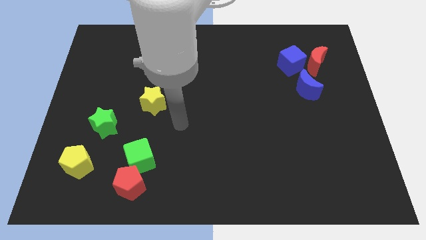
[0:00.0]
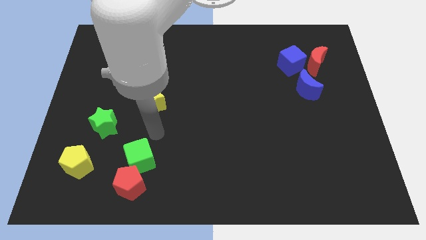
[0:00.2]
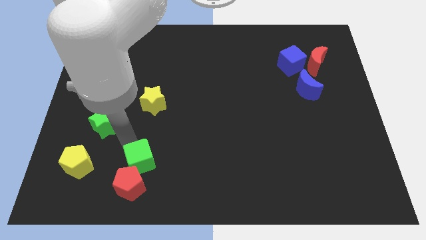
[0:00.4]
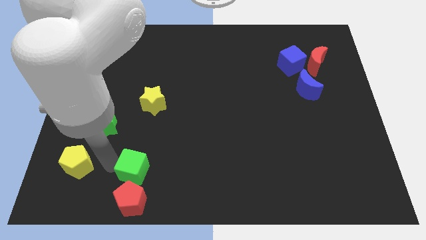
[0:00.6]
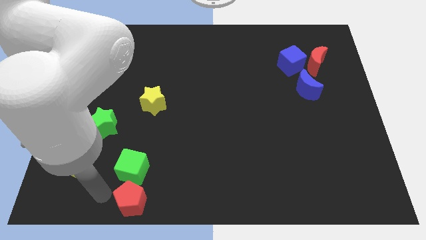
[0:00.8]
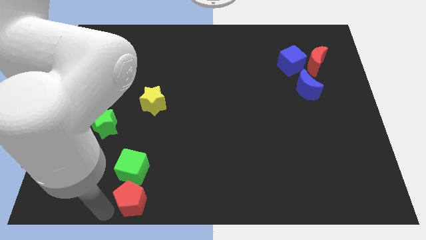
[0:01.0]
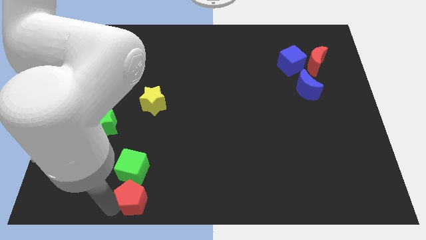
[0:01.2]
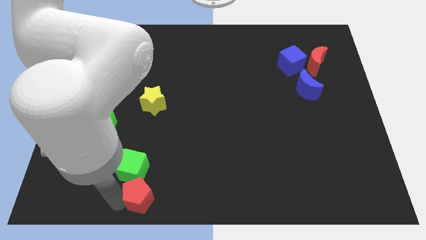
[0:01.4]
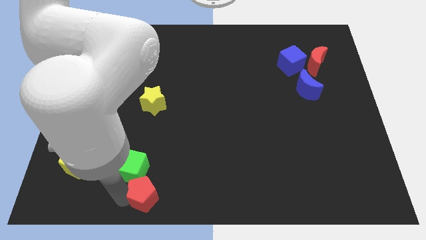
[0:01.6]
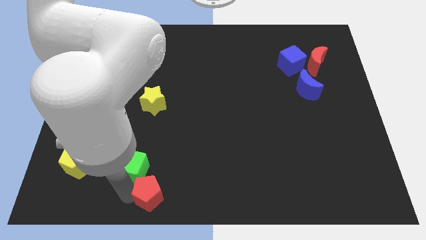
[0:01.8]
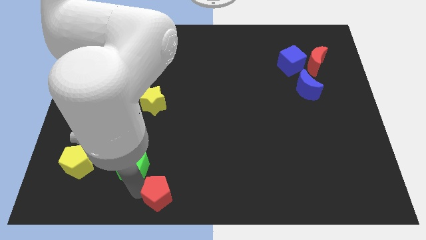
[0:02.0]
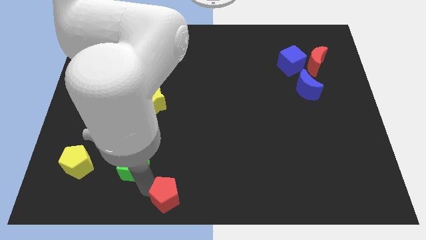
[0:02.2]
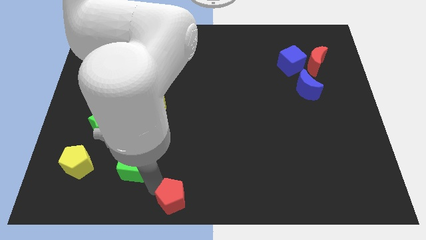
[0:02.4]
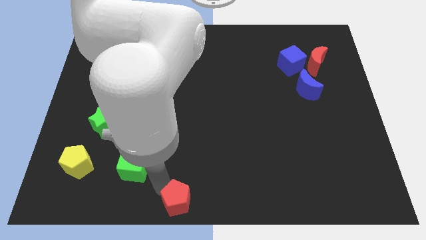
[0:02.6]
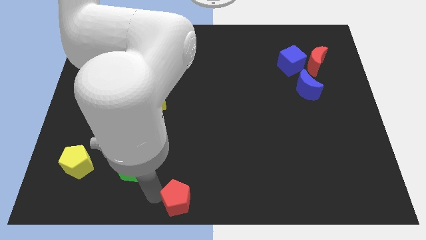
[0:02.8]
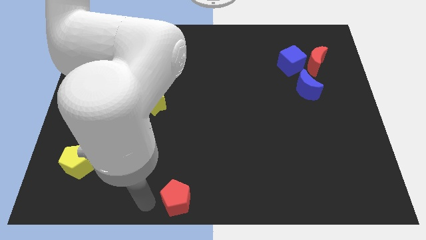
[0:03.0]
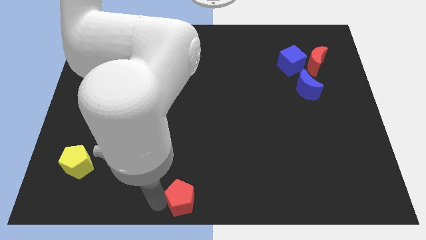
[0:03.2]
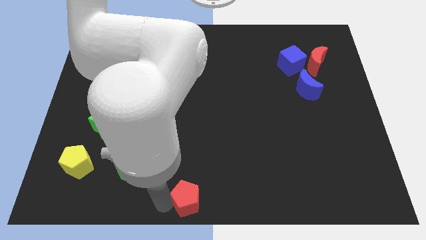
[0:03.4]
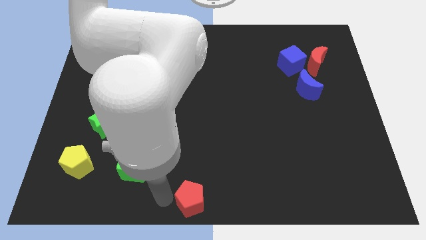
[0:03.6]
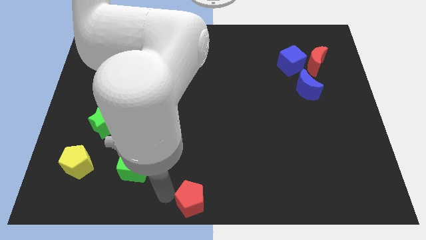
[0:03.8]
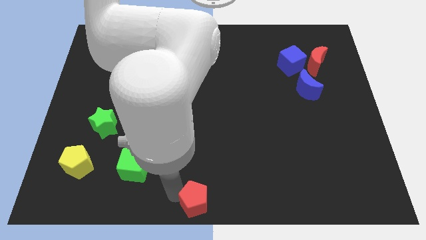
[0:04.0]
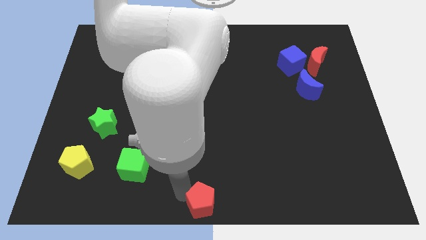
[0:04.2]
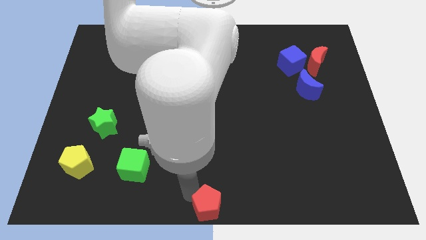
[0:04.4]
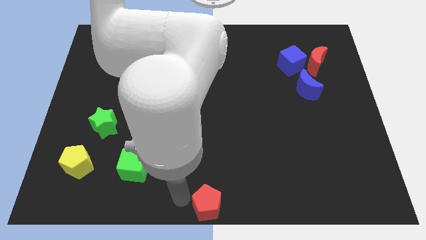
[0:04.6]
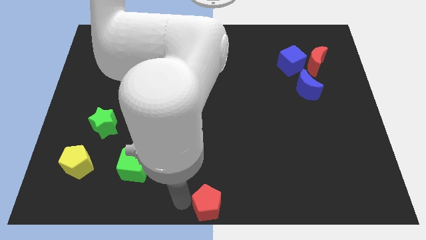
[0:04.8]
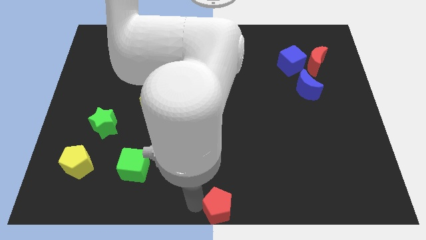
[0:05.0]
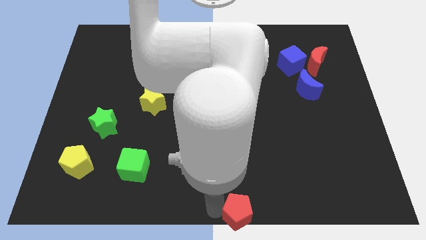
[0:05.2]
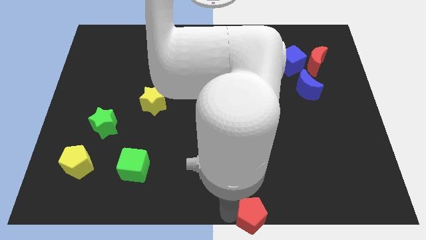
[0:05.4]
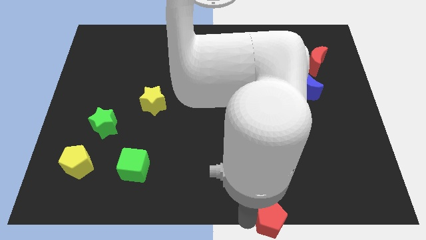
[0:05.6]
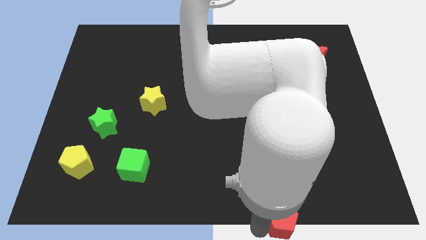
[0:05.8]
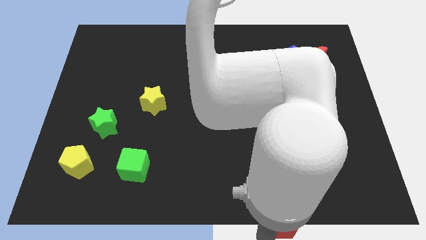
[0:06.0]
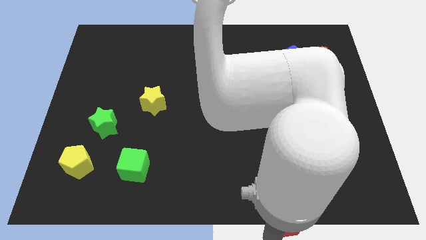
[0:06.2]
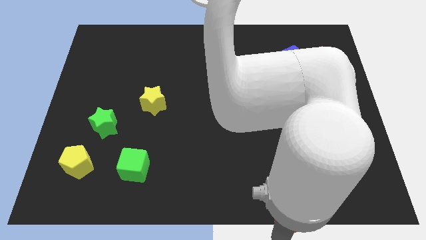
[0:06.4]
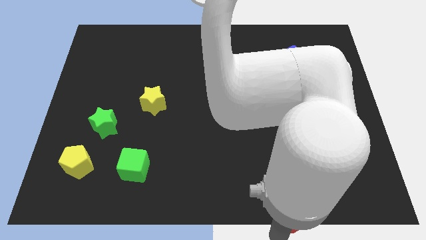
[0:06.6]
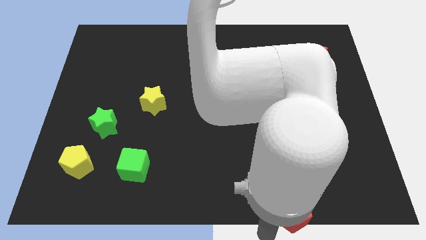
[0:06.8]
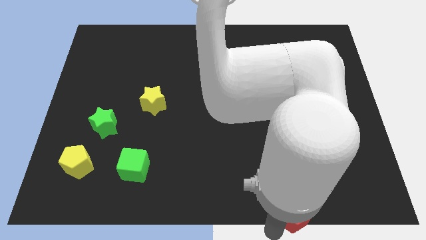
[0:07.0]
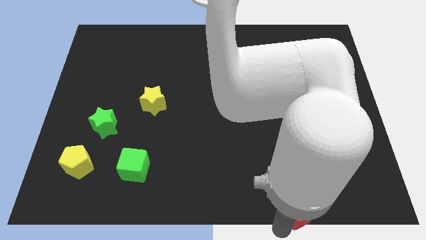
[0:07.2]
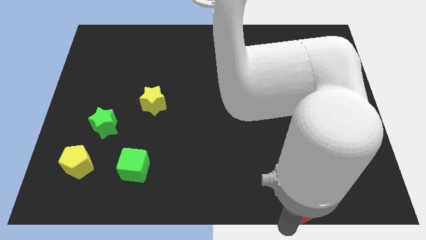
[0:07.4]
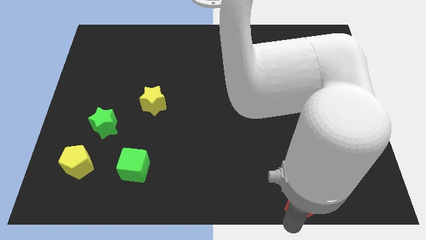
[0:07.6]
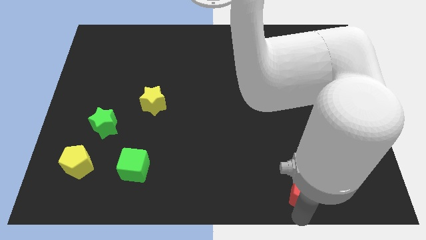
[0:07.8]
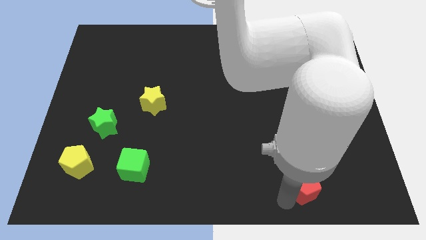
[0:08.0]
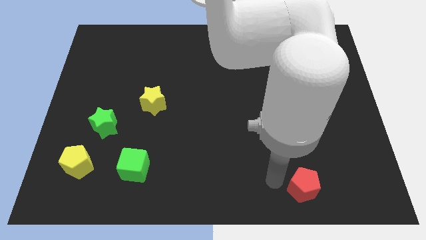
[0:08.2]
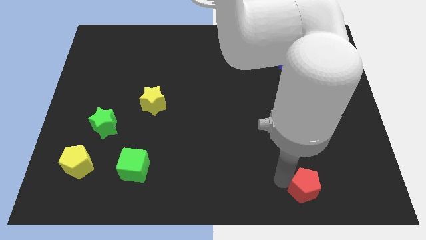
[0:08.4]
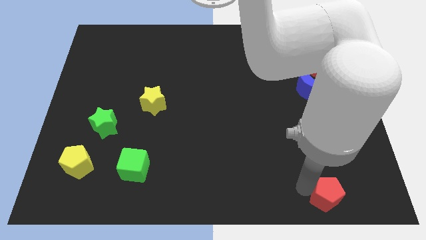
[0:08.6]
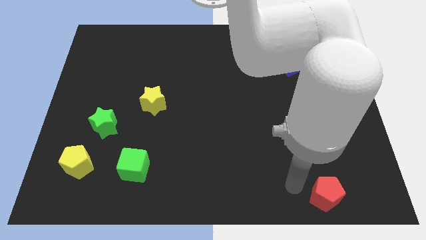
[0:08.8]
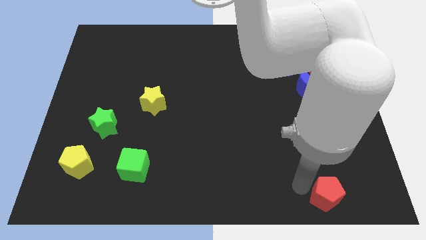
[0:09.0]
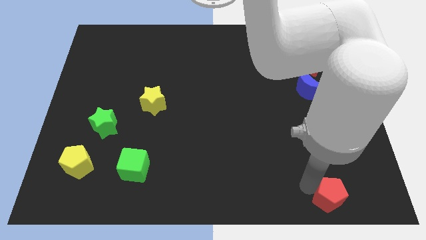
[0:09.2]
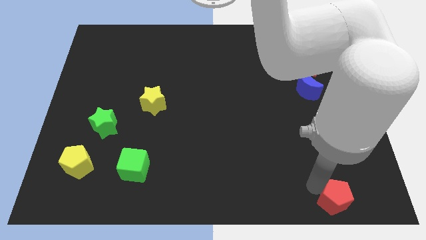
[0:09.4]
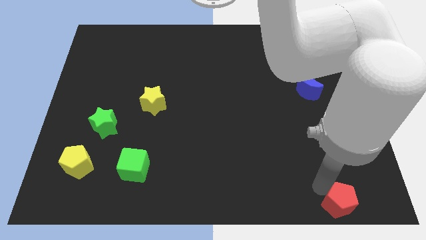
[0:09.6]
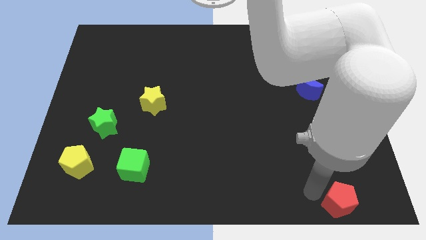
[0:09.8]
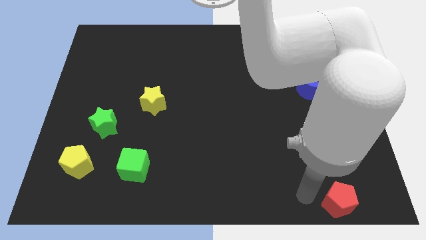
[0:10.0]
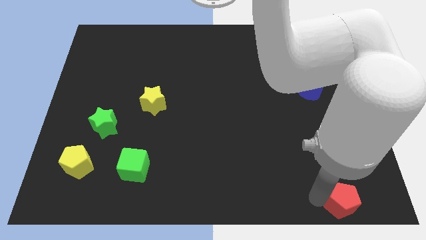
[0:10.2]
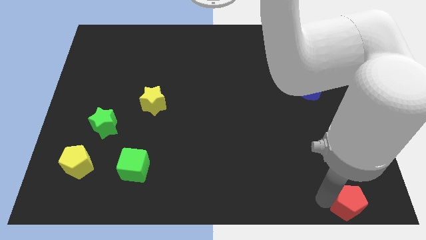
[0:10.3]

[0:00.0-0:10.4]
slide the red pentagon to the lower right corner

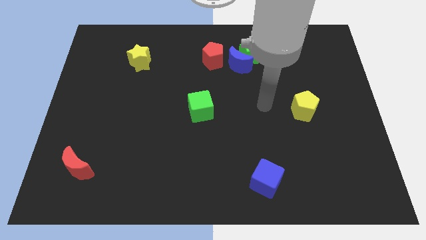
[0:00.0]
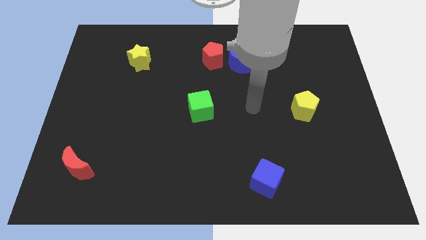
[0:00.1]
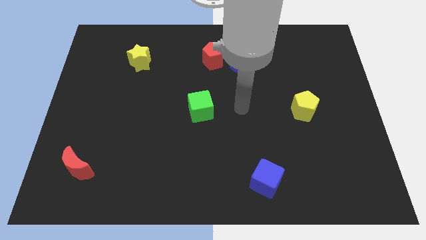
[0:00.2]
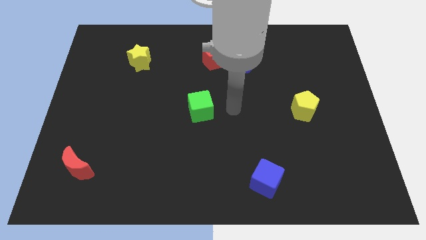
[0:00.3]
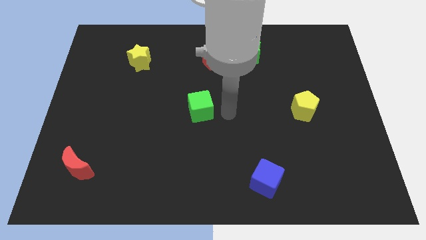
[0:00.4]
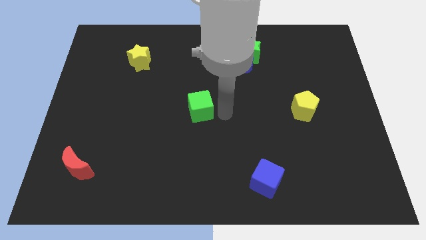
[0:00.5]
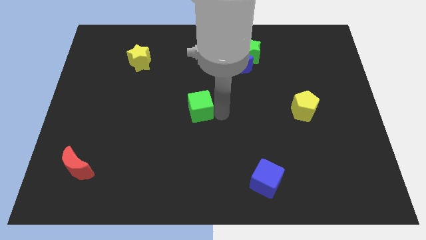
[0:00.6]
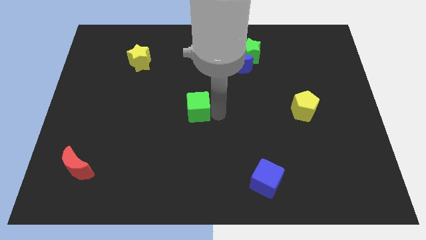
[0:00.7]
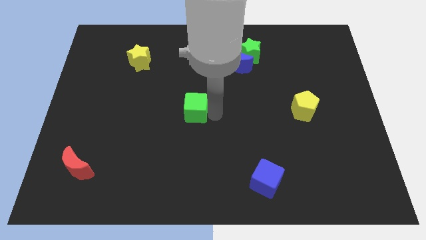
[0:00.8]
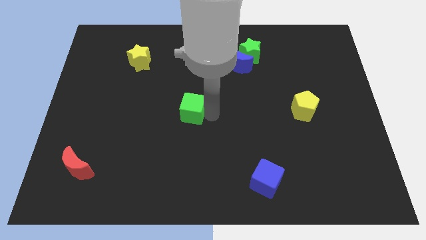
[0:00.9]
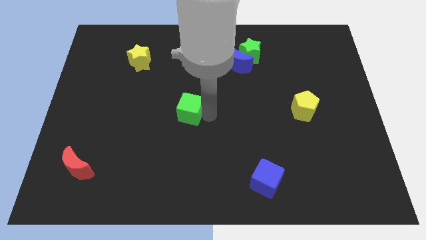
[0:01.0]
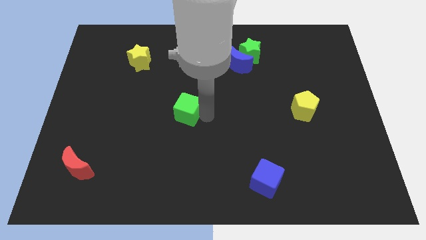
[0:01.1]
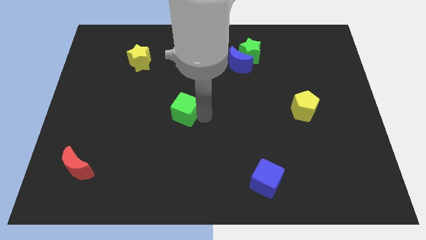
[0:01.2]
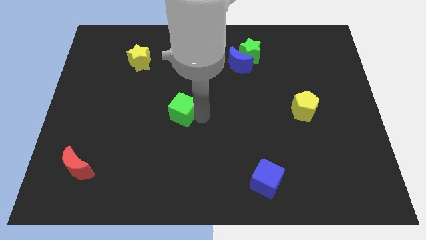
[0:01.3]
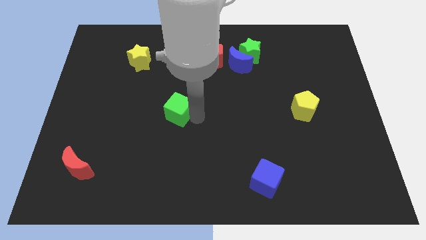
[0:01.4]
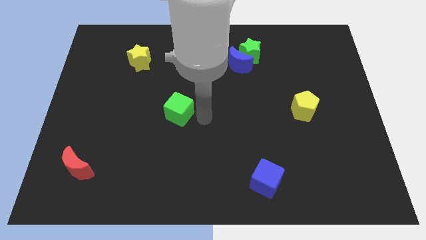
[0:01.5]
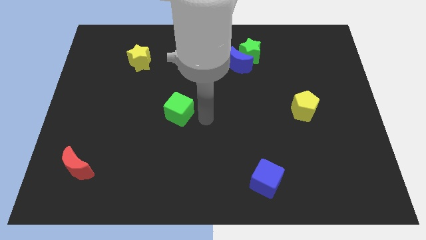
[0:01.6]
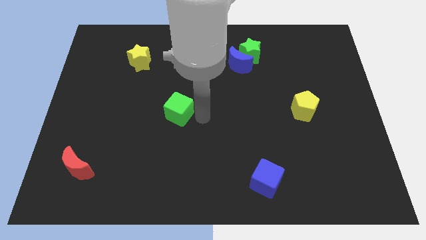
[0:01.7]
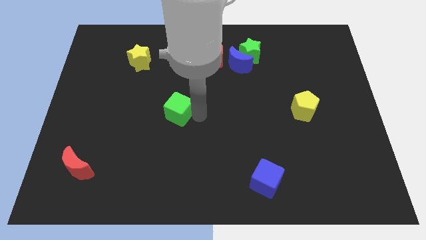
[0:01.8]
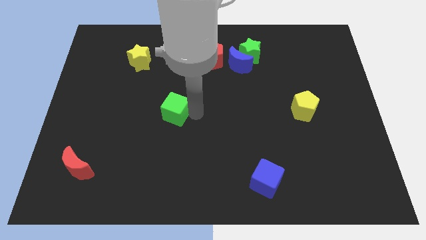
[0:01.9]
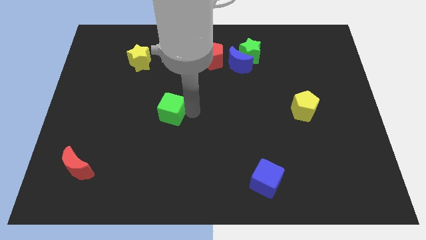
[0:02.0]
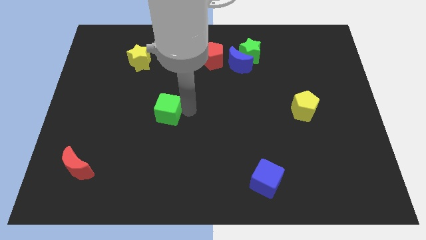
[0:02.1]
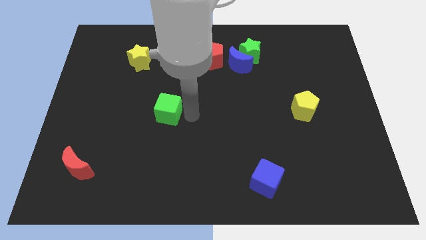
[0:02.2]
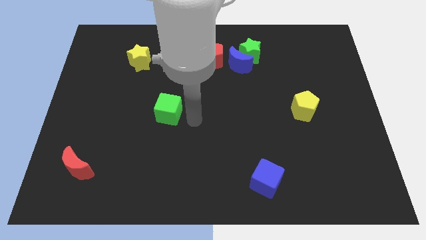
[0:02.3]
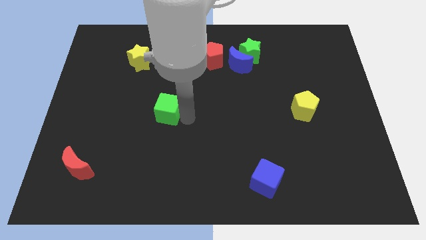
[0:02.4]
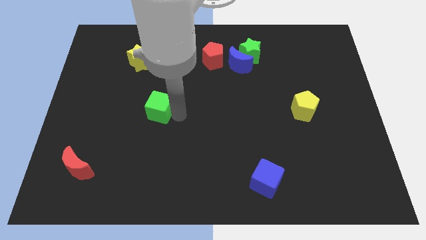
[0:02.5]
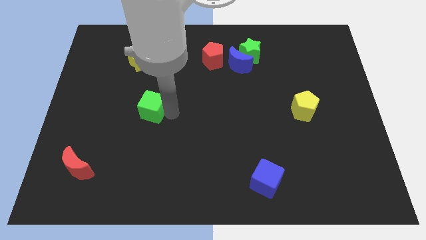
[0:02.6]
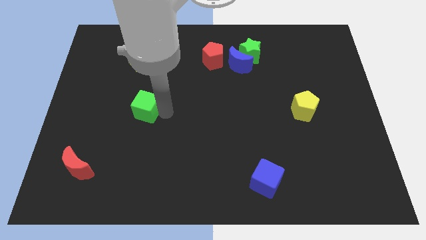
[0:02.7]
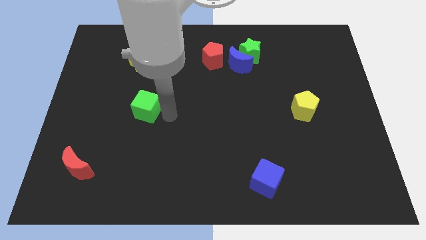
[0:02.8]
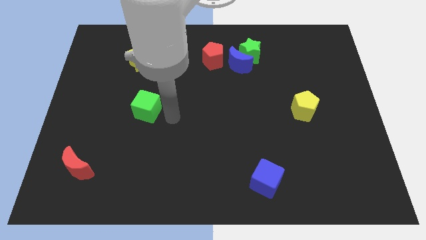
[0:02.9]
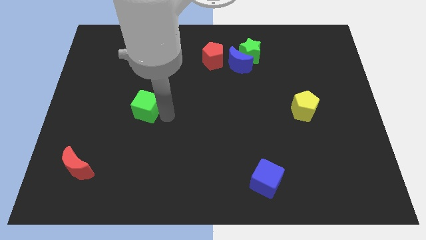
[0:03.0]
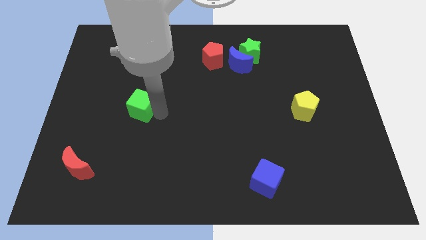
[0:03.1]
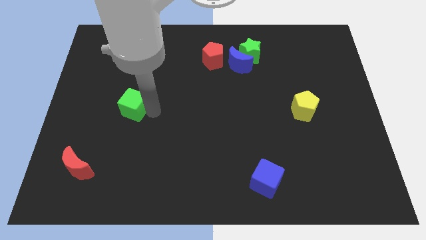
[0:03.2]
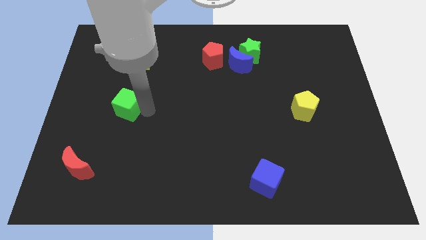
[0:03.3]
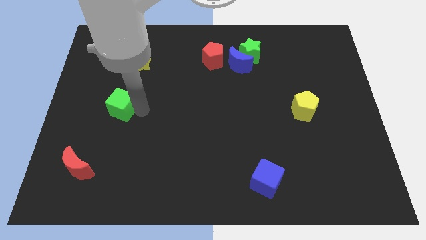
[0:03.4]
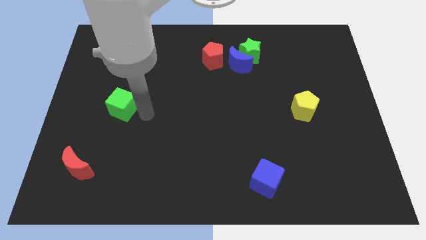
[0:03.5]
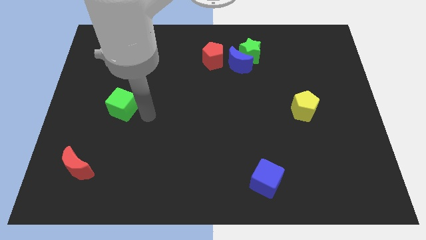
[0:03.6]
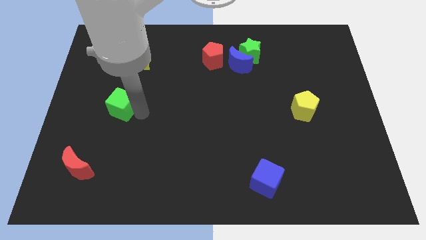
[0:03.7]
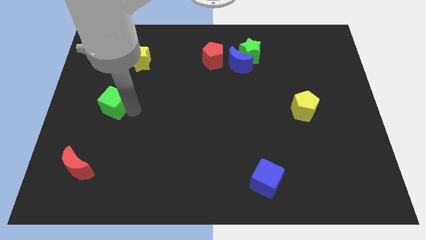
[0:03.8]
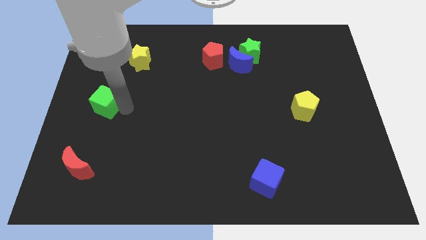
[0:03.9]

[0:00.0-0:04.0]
put the green cube to the center left
